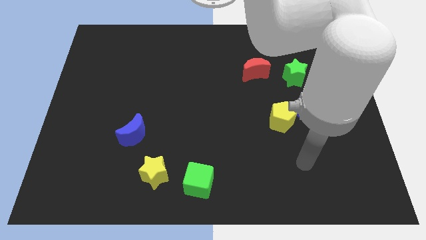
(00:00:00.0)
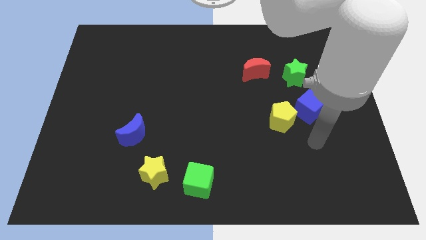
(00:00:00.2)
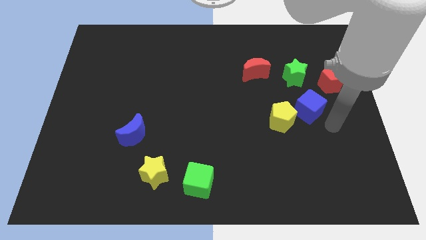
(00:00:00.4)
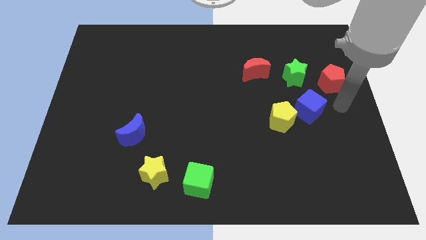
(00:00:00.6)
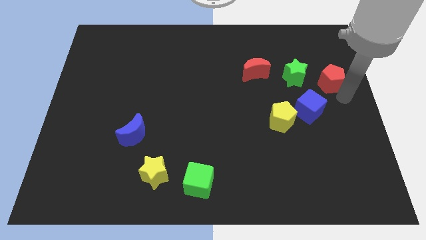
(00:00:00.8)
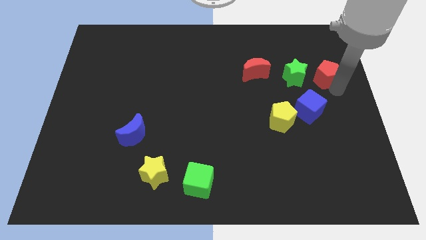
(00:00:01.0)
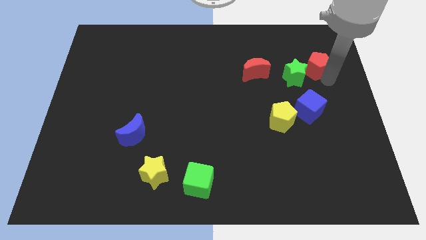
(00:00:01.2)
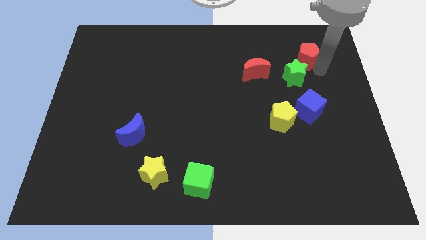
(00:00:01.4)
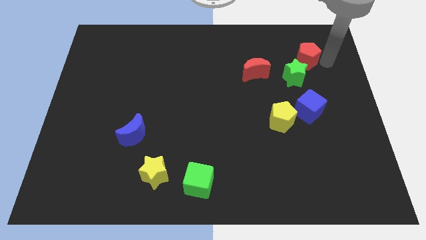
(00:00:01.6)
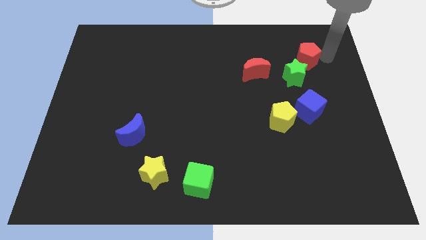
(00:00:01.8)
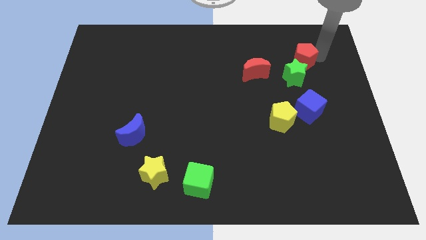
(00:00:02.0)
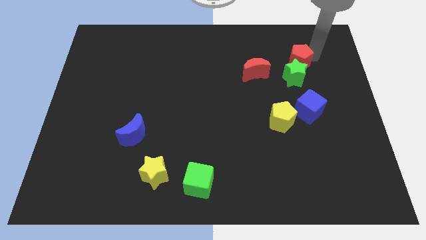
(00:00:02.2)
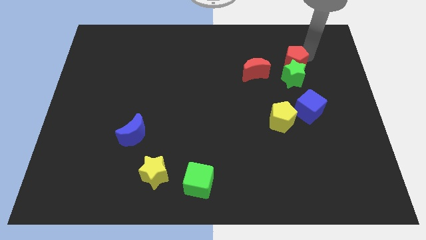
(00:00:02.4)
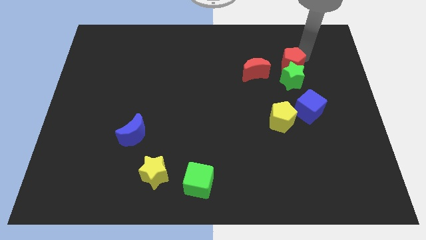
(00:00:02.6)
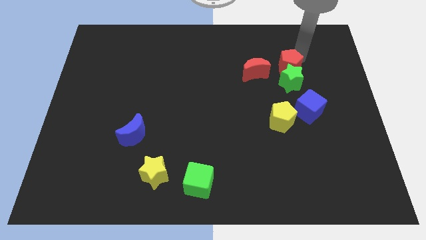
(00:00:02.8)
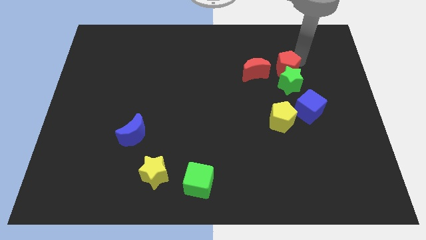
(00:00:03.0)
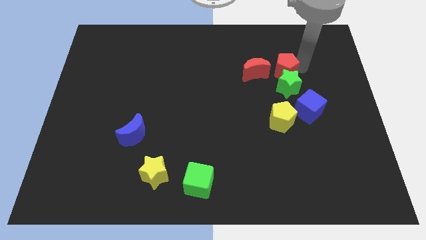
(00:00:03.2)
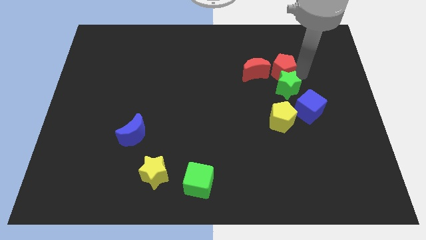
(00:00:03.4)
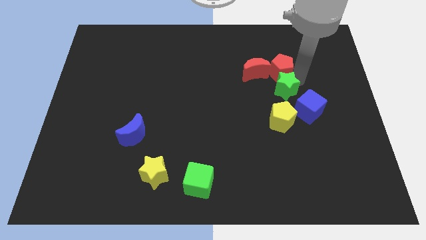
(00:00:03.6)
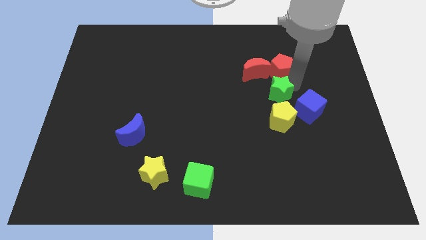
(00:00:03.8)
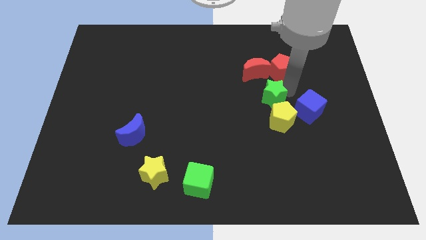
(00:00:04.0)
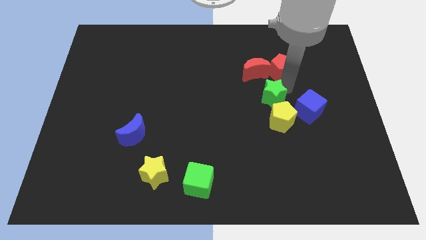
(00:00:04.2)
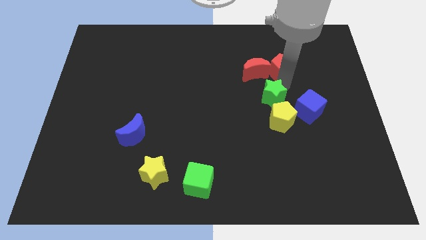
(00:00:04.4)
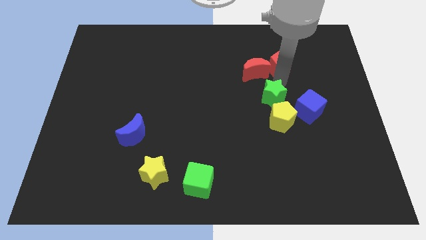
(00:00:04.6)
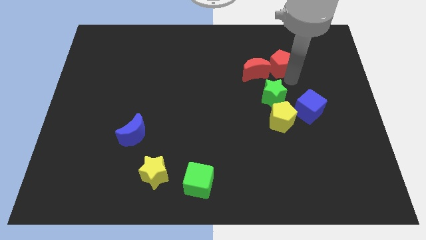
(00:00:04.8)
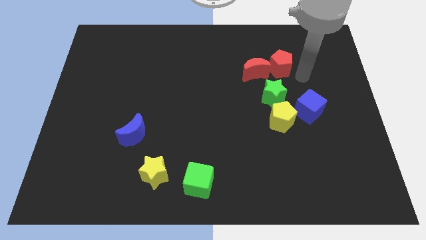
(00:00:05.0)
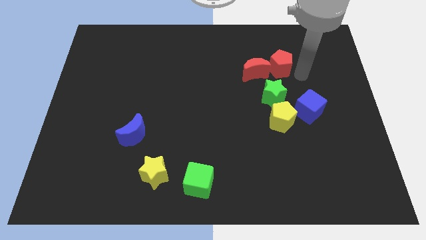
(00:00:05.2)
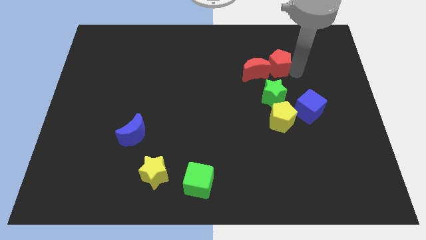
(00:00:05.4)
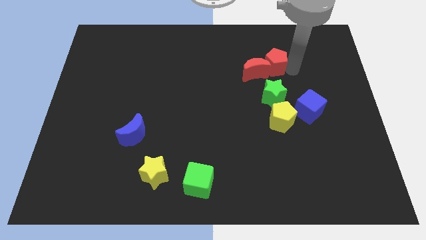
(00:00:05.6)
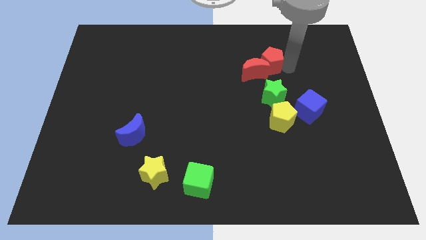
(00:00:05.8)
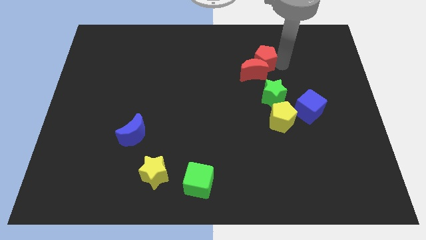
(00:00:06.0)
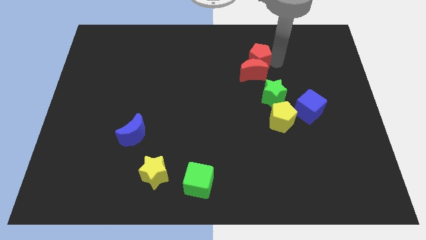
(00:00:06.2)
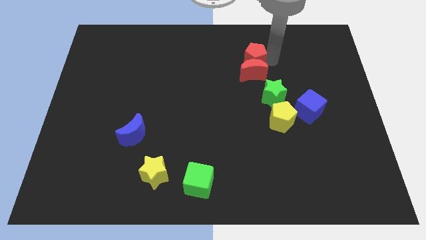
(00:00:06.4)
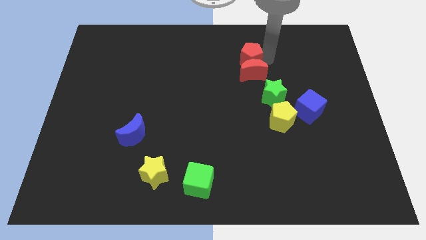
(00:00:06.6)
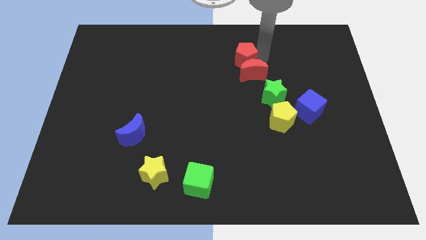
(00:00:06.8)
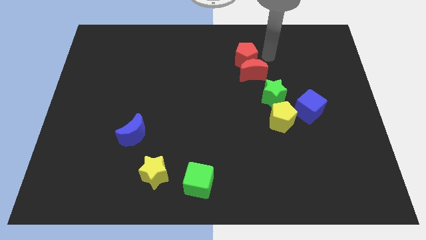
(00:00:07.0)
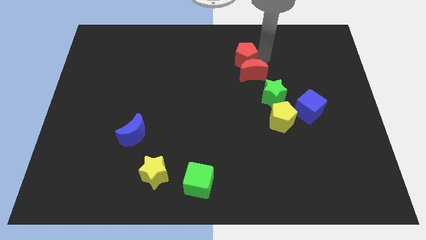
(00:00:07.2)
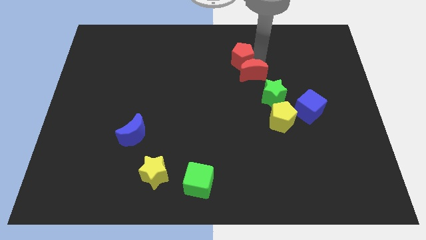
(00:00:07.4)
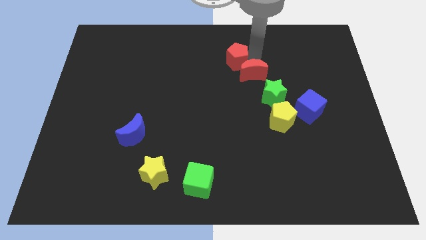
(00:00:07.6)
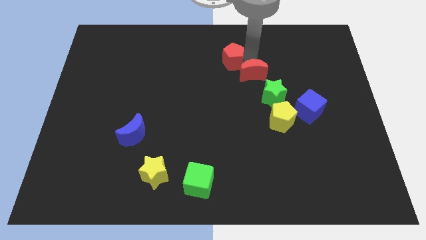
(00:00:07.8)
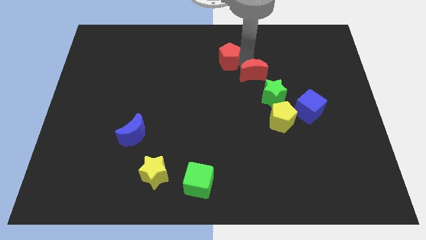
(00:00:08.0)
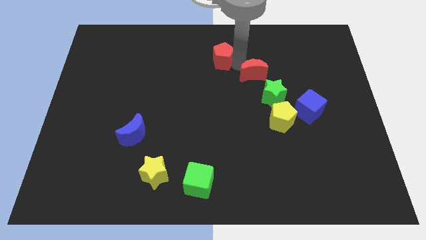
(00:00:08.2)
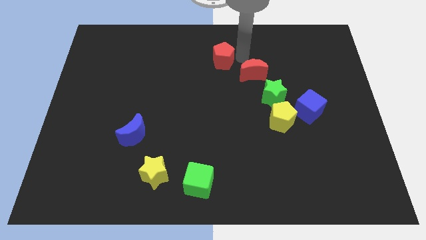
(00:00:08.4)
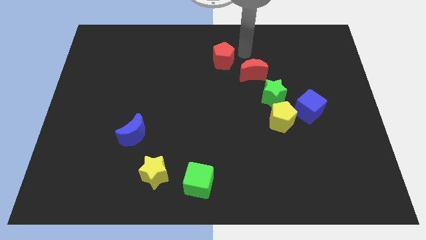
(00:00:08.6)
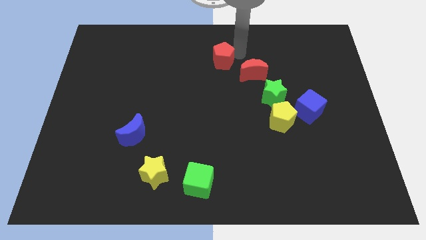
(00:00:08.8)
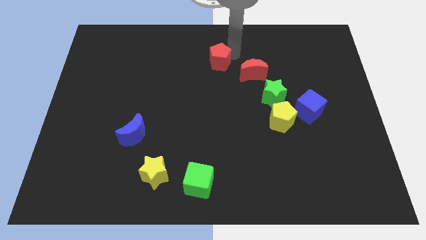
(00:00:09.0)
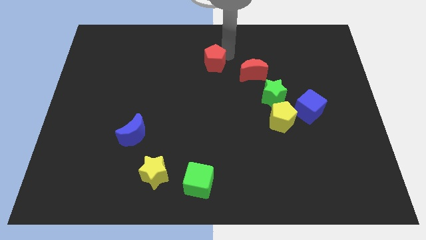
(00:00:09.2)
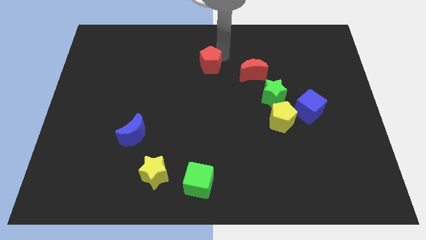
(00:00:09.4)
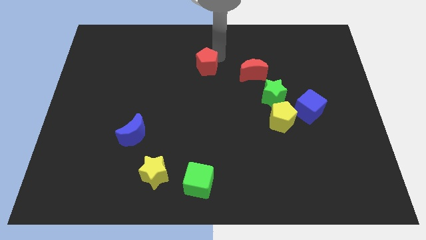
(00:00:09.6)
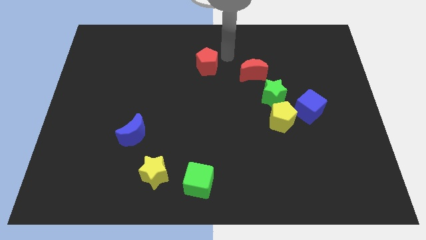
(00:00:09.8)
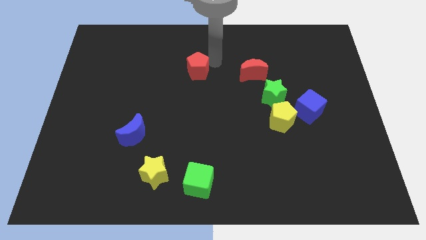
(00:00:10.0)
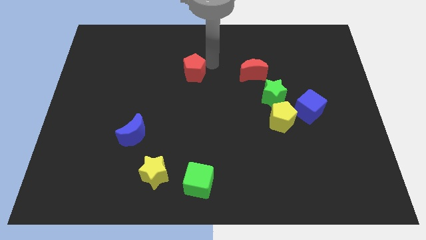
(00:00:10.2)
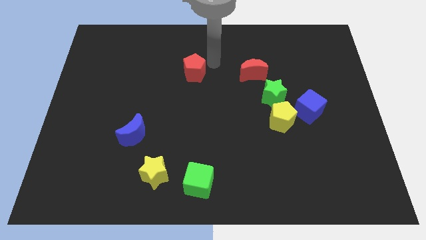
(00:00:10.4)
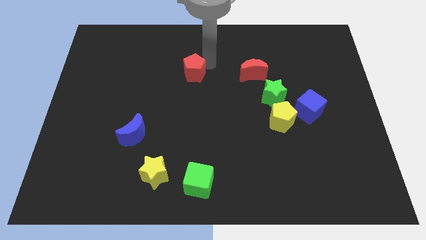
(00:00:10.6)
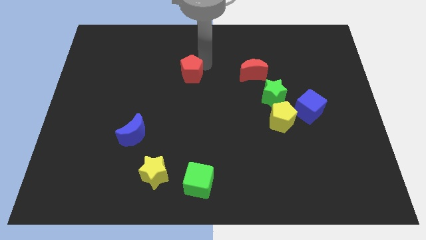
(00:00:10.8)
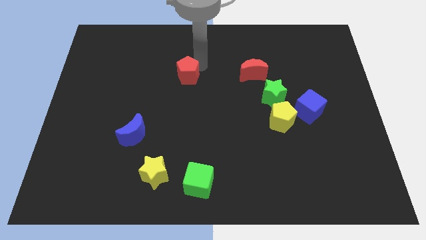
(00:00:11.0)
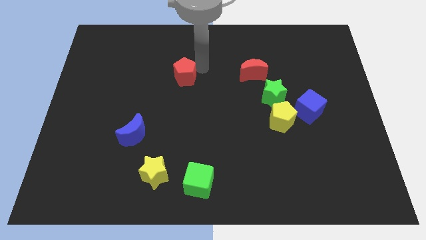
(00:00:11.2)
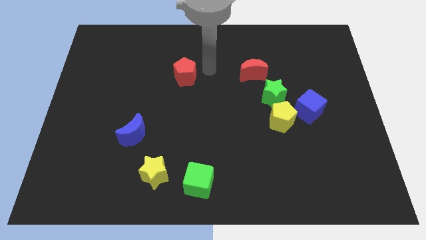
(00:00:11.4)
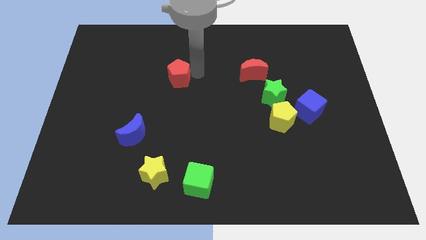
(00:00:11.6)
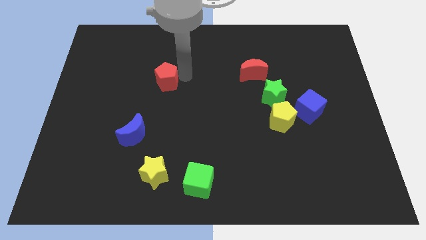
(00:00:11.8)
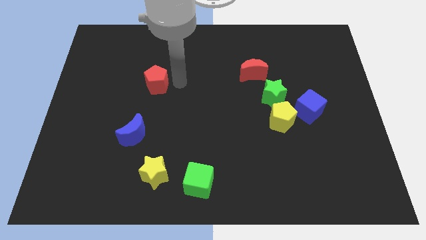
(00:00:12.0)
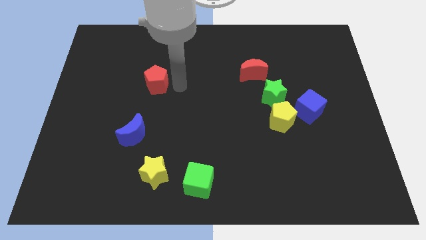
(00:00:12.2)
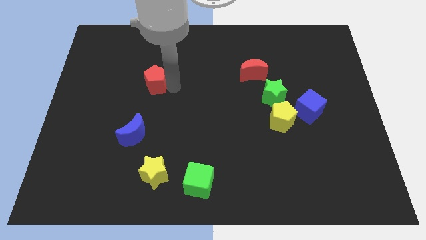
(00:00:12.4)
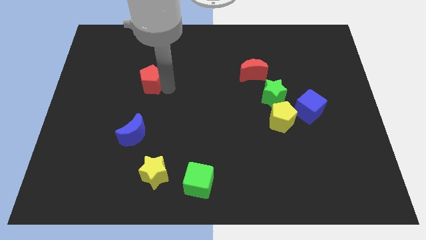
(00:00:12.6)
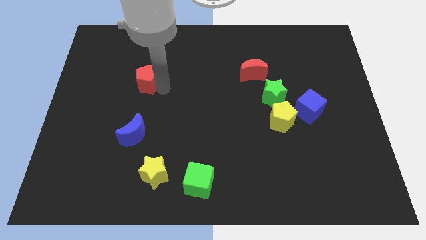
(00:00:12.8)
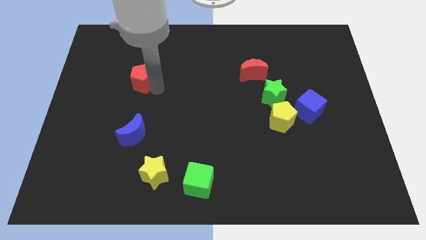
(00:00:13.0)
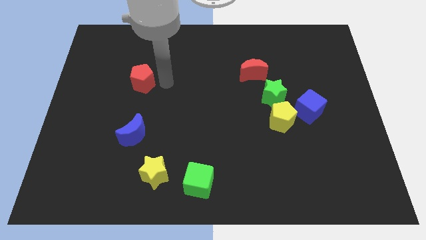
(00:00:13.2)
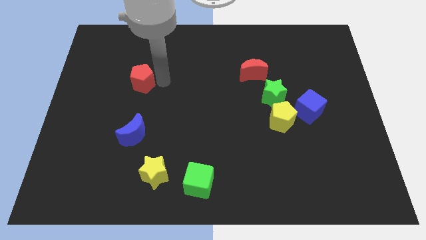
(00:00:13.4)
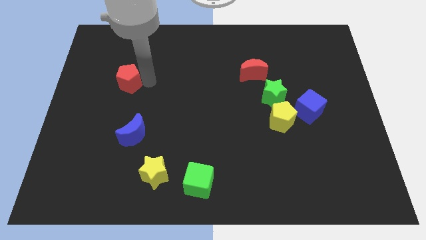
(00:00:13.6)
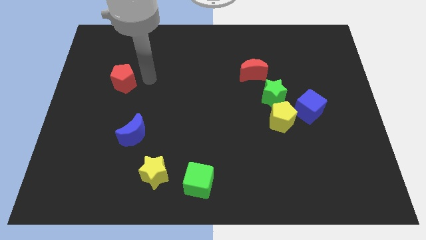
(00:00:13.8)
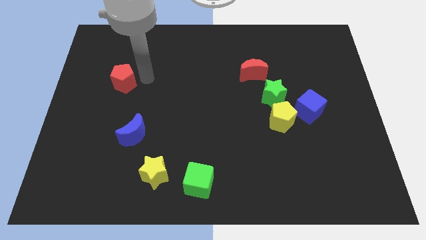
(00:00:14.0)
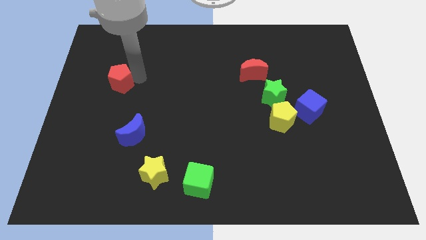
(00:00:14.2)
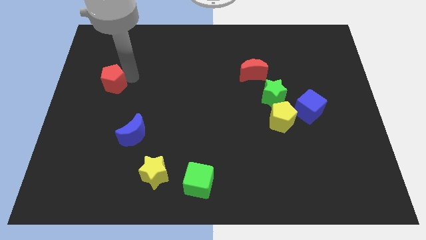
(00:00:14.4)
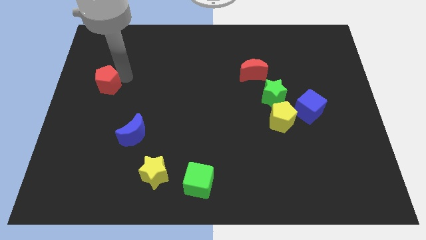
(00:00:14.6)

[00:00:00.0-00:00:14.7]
move the red pentagon to the left side
